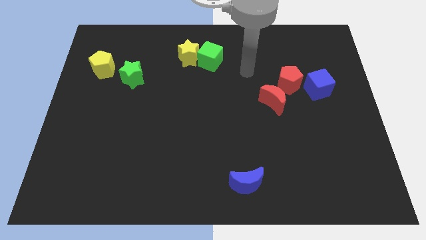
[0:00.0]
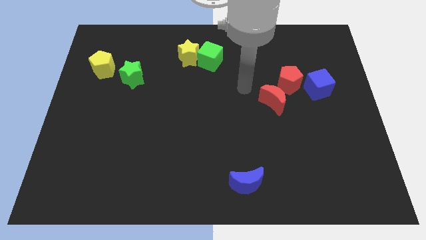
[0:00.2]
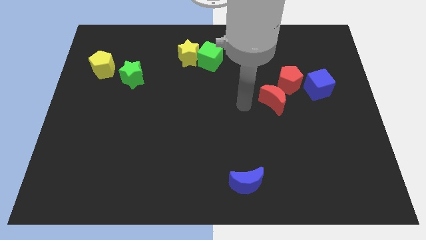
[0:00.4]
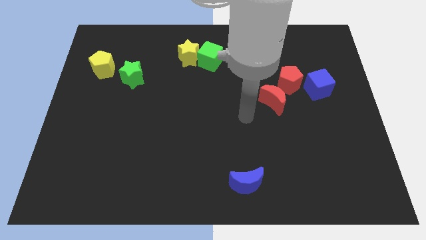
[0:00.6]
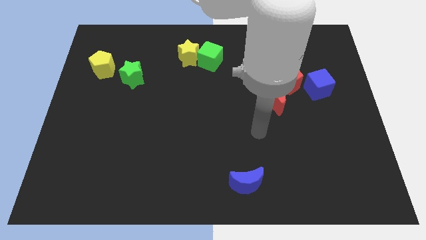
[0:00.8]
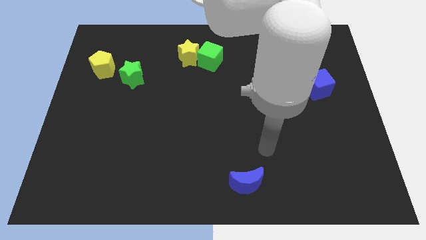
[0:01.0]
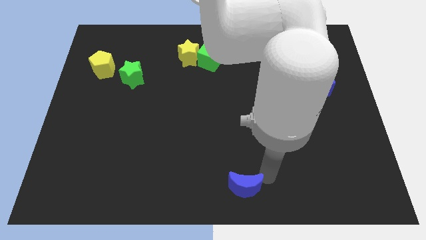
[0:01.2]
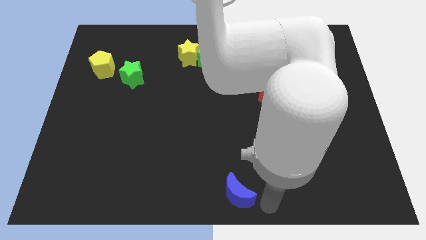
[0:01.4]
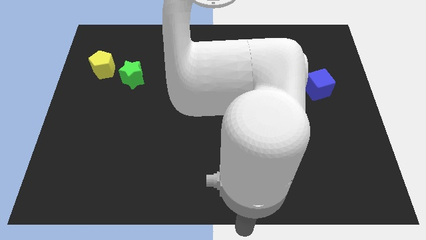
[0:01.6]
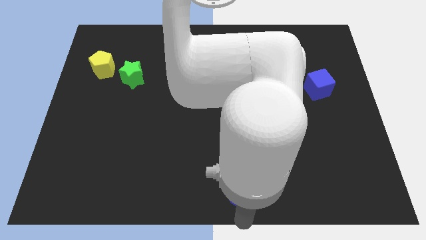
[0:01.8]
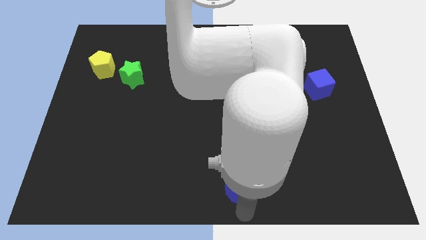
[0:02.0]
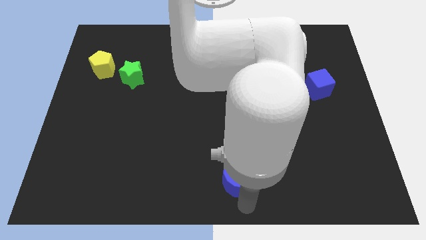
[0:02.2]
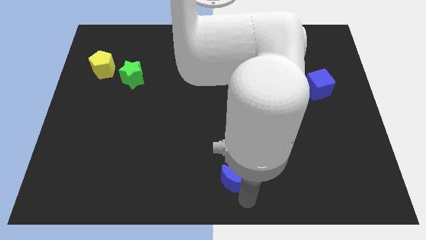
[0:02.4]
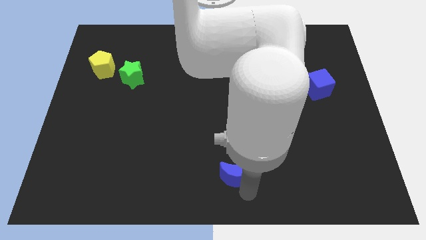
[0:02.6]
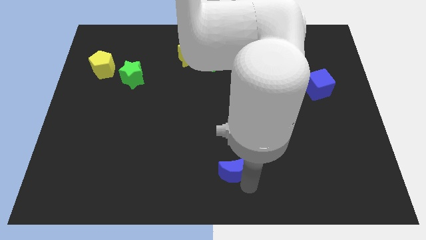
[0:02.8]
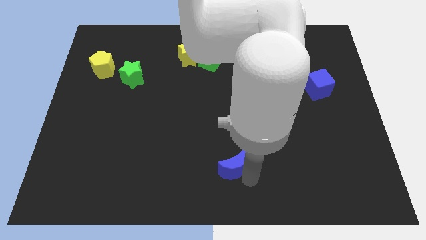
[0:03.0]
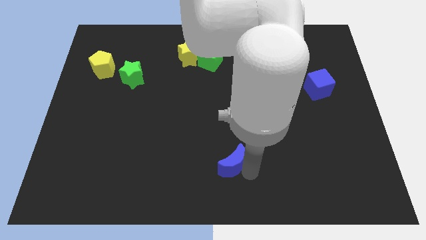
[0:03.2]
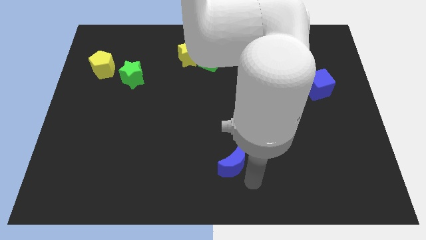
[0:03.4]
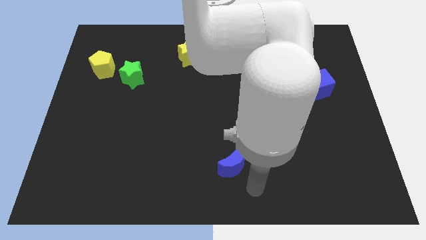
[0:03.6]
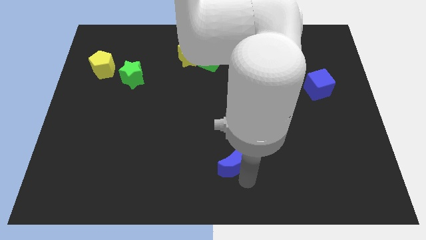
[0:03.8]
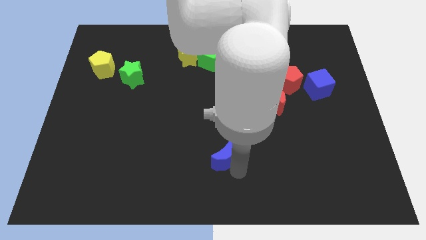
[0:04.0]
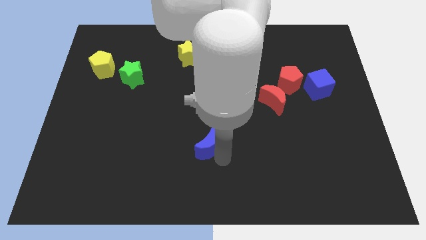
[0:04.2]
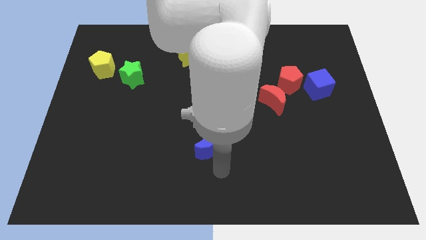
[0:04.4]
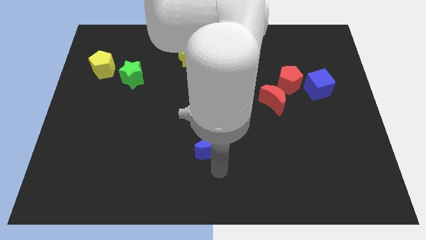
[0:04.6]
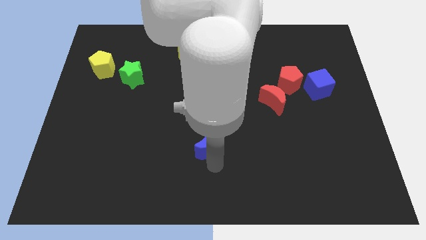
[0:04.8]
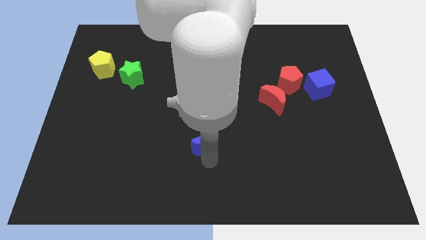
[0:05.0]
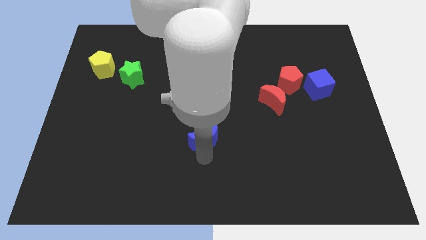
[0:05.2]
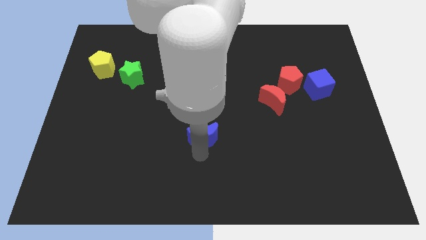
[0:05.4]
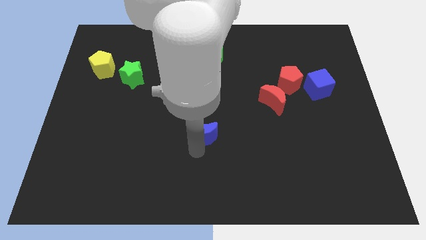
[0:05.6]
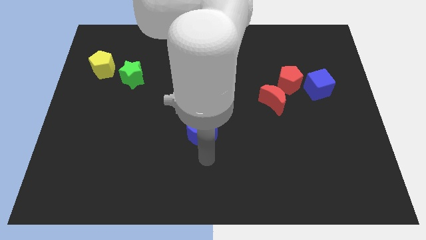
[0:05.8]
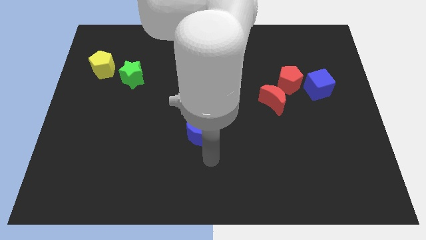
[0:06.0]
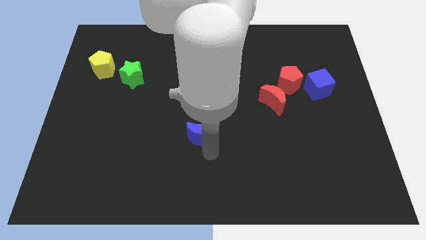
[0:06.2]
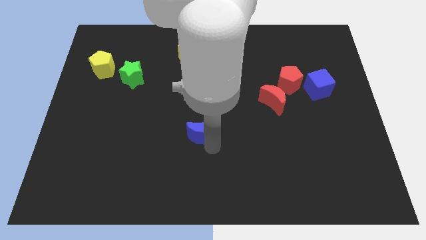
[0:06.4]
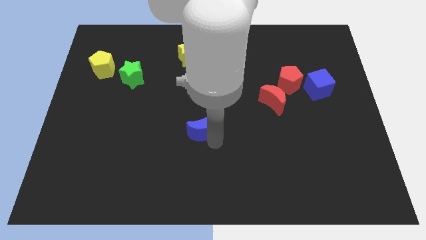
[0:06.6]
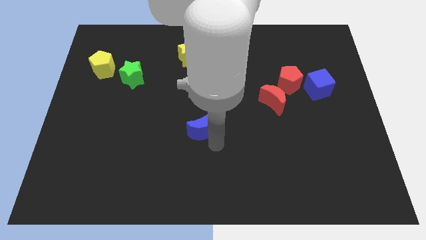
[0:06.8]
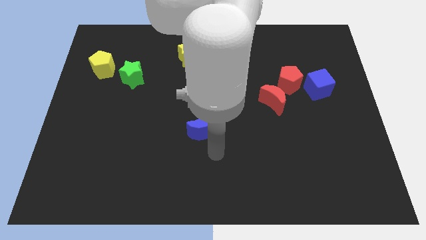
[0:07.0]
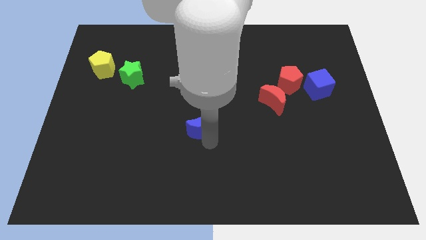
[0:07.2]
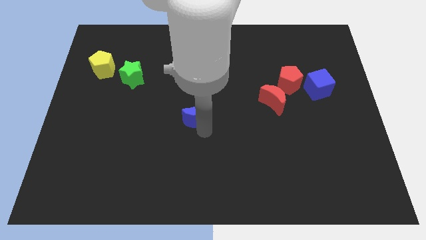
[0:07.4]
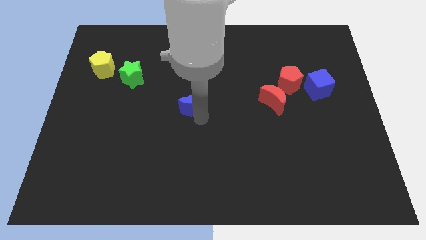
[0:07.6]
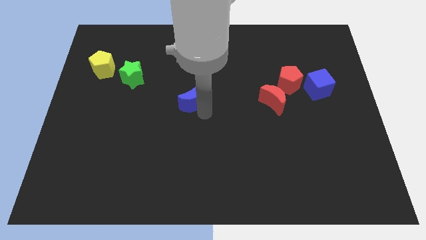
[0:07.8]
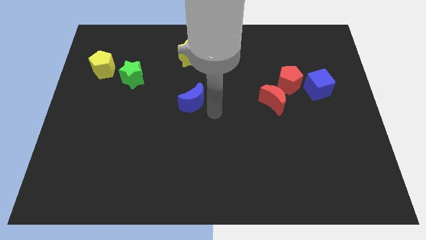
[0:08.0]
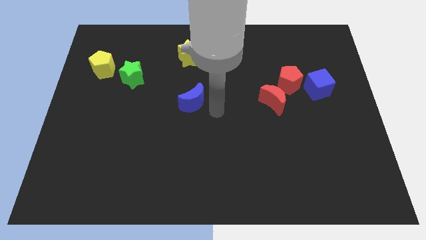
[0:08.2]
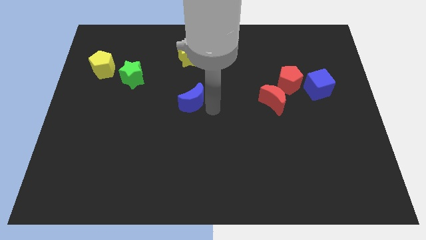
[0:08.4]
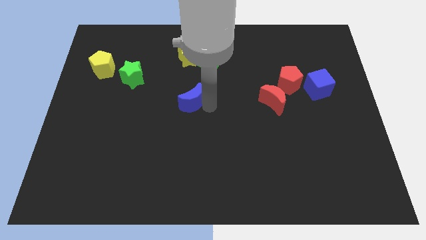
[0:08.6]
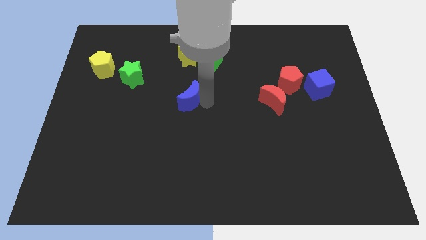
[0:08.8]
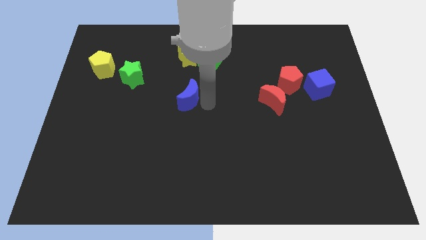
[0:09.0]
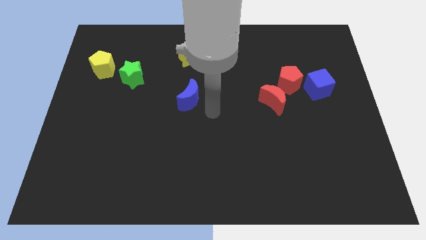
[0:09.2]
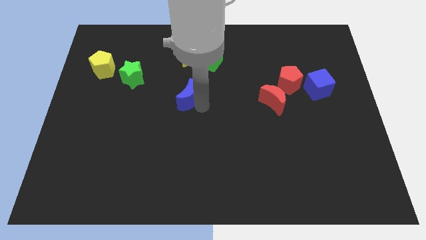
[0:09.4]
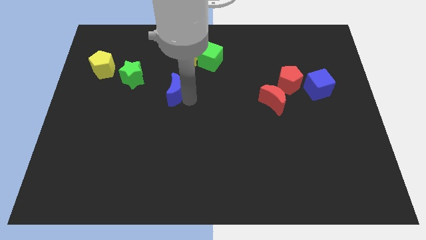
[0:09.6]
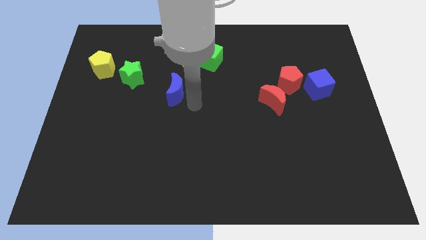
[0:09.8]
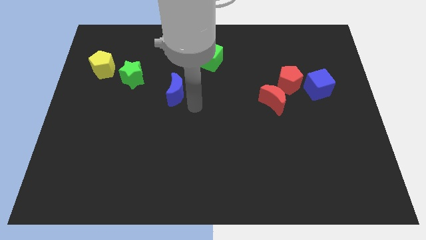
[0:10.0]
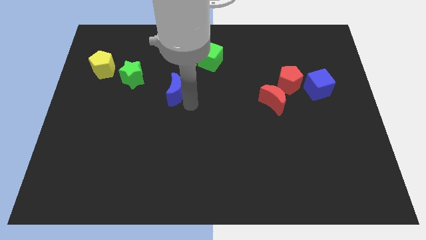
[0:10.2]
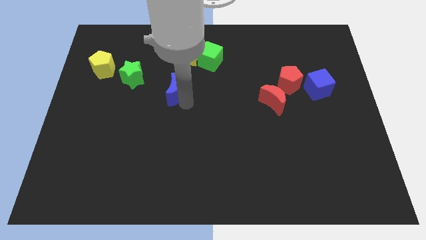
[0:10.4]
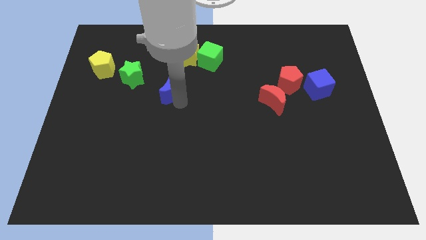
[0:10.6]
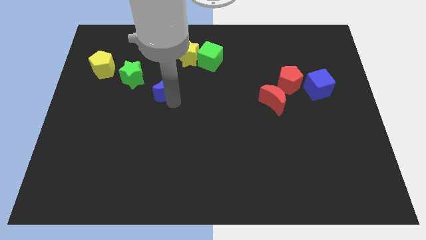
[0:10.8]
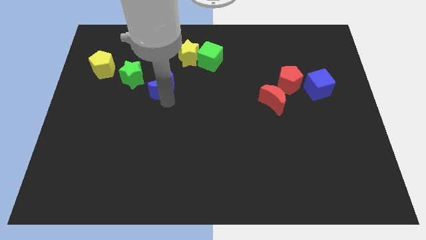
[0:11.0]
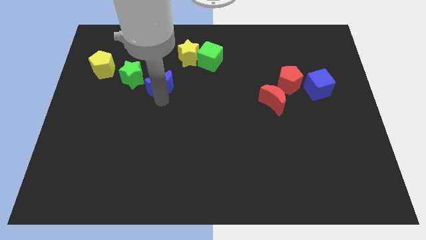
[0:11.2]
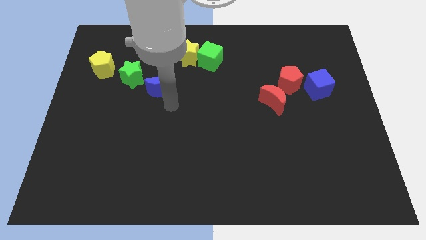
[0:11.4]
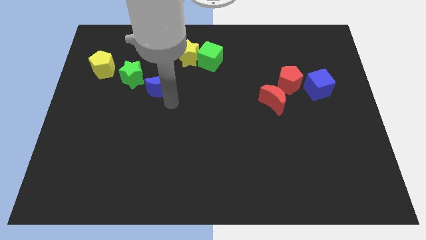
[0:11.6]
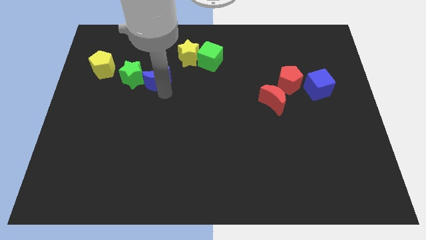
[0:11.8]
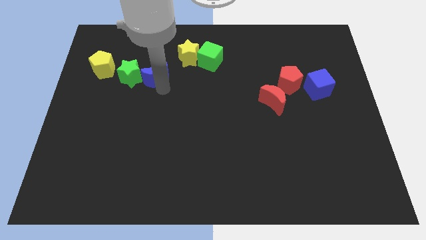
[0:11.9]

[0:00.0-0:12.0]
slide the blue moon right of the yellow pentagon
